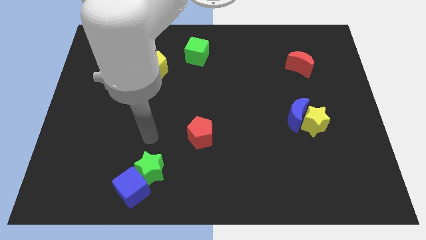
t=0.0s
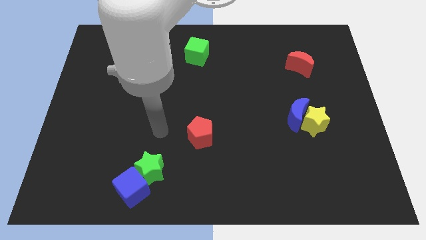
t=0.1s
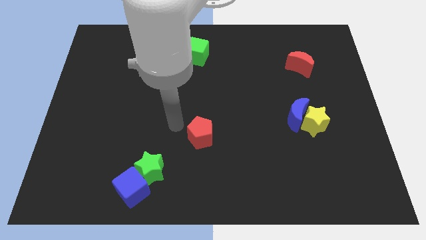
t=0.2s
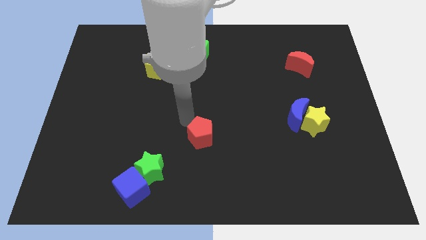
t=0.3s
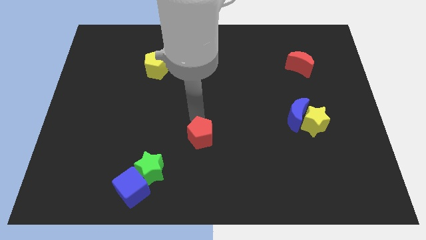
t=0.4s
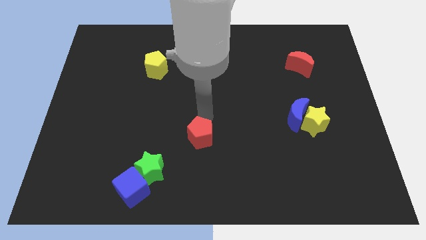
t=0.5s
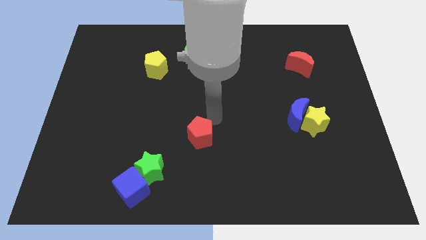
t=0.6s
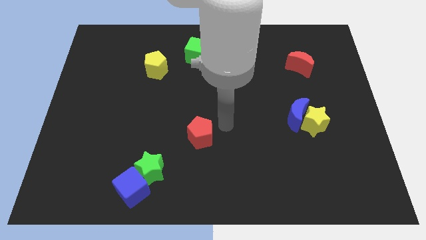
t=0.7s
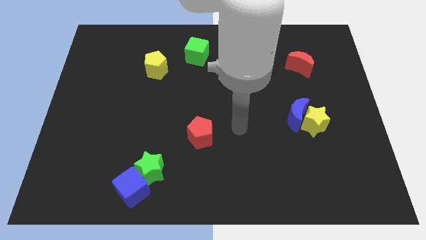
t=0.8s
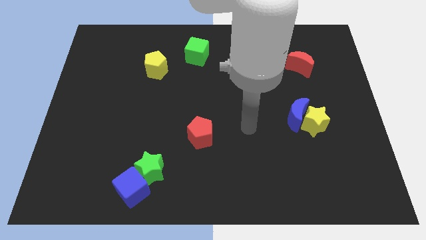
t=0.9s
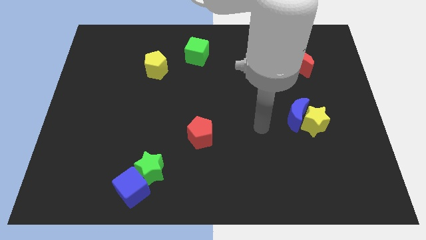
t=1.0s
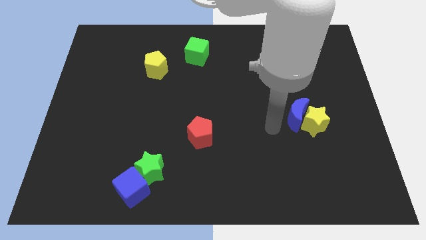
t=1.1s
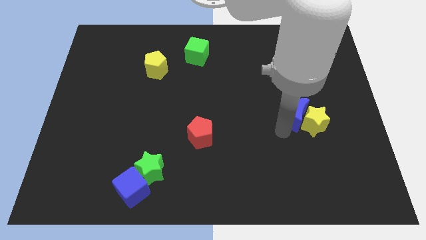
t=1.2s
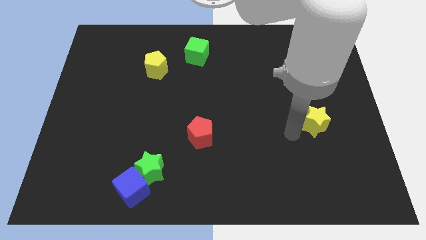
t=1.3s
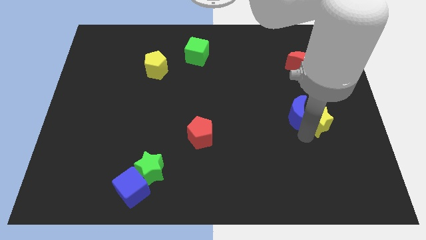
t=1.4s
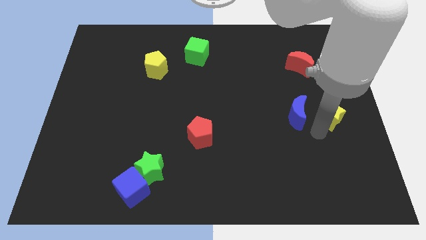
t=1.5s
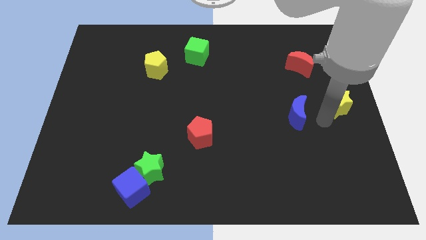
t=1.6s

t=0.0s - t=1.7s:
separate the blue moon from the yellow star

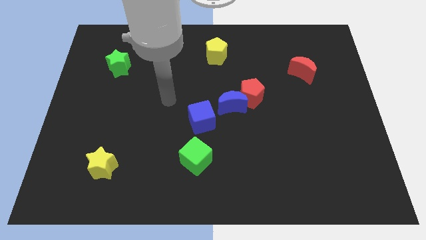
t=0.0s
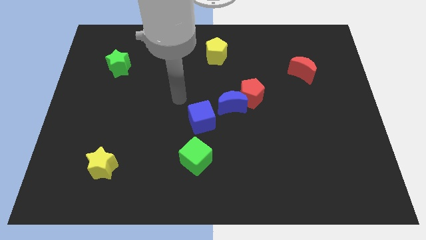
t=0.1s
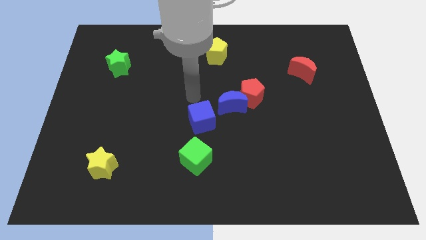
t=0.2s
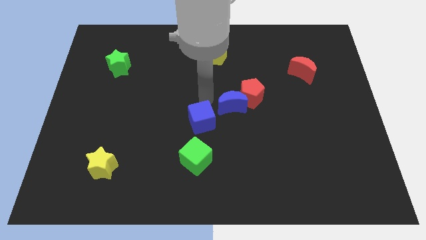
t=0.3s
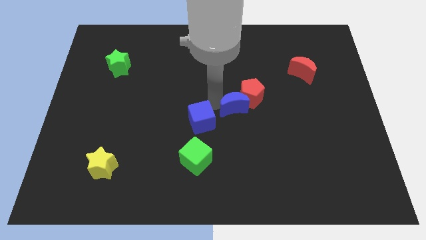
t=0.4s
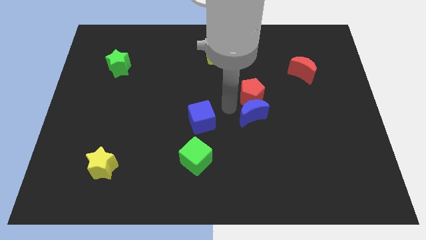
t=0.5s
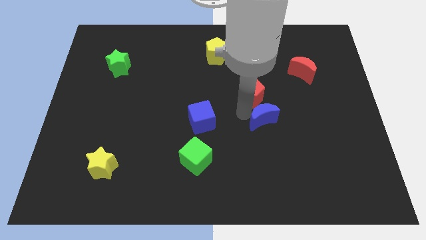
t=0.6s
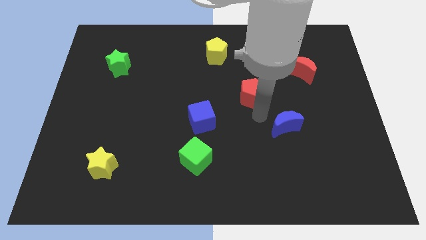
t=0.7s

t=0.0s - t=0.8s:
separate the red pentagon from the blue moon

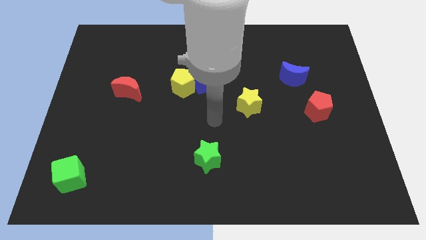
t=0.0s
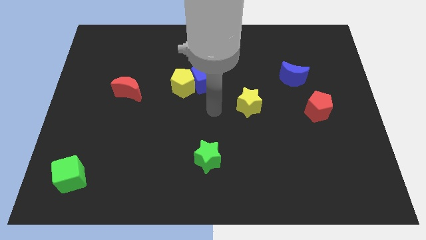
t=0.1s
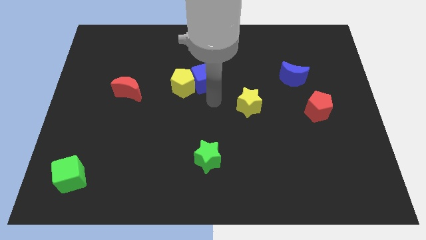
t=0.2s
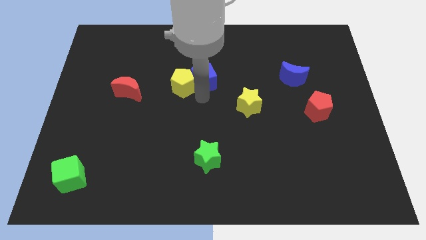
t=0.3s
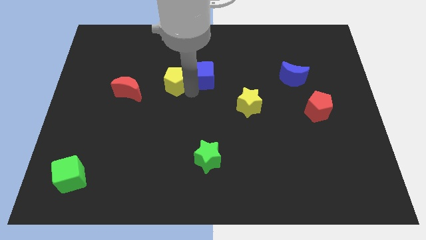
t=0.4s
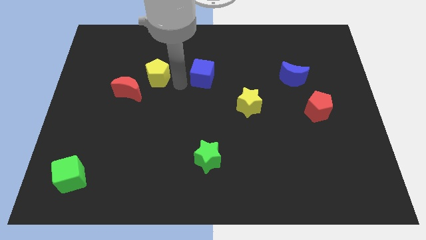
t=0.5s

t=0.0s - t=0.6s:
pull the blue cube apart from the yellow pentagon

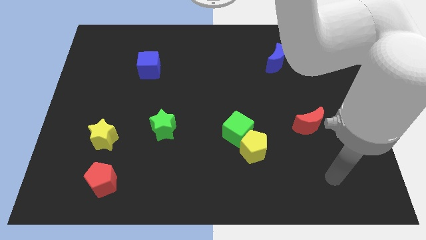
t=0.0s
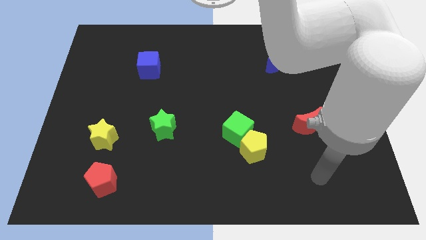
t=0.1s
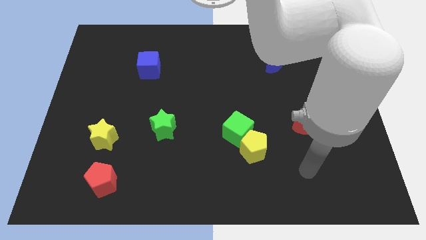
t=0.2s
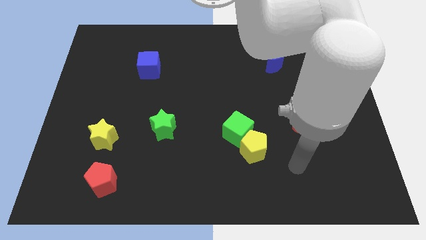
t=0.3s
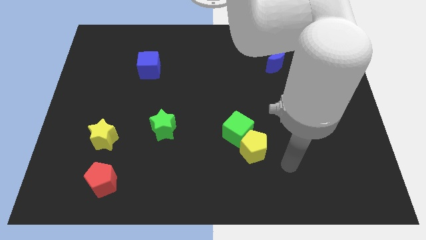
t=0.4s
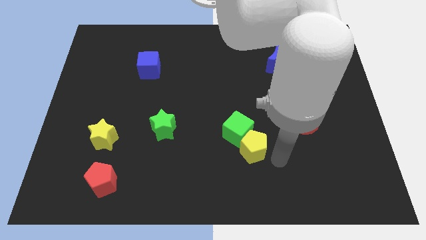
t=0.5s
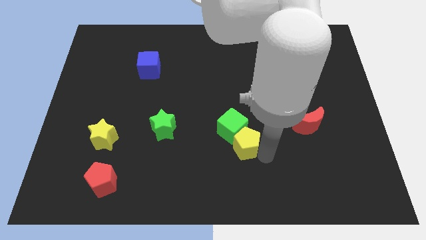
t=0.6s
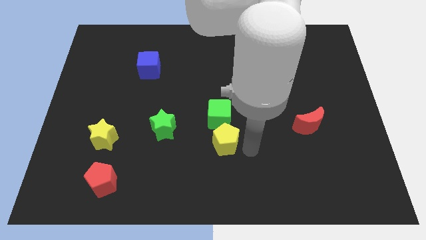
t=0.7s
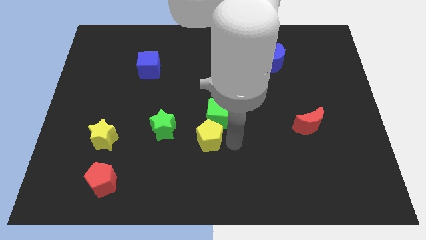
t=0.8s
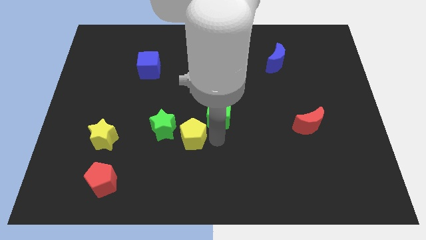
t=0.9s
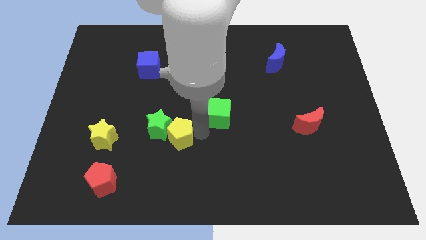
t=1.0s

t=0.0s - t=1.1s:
pull the green cube apart from the yellow pentagon

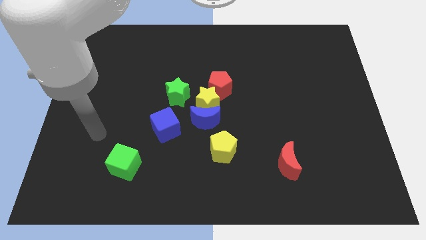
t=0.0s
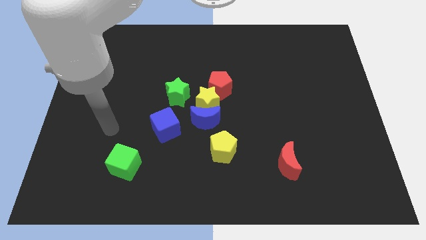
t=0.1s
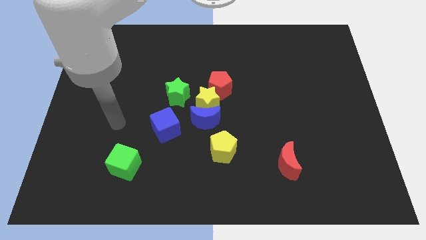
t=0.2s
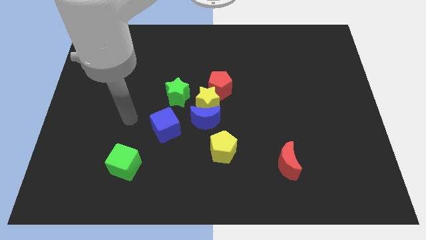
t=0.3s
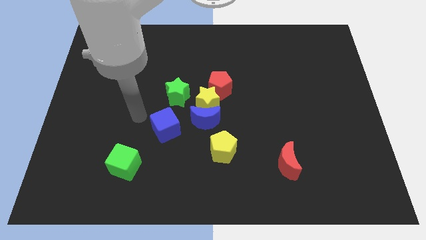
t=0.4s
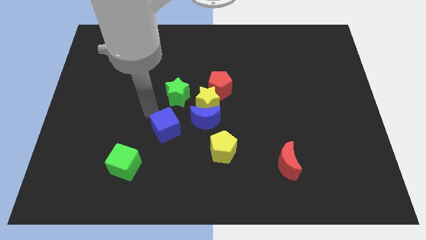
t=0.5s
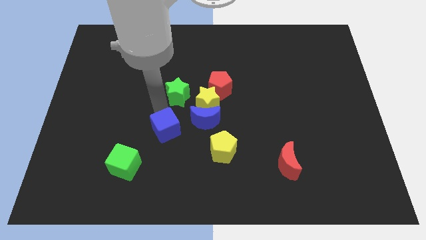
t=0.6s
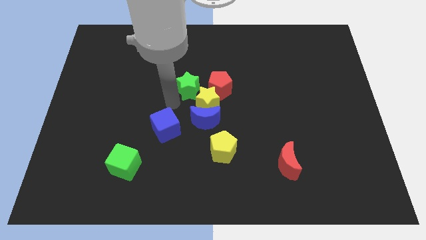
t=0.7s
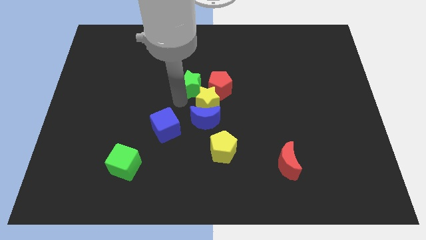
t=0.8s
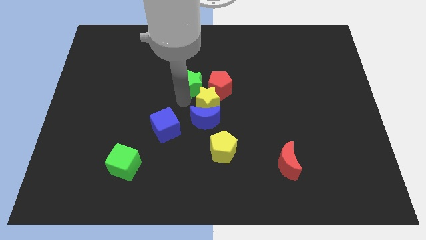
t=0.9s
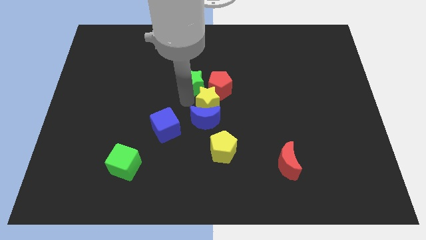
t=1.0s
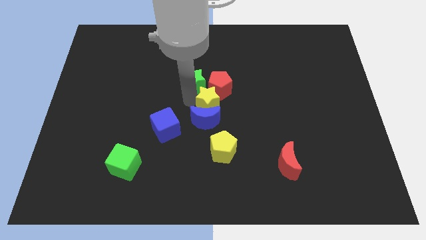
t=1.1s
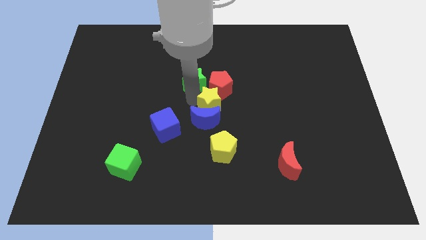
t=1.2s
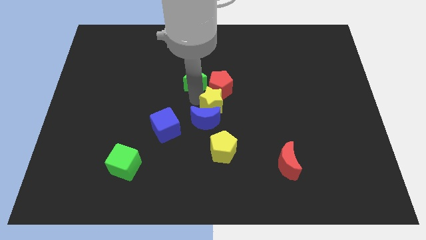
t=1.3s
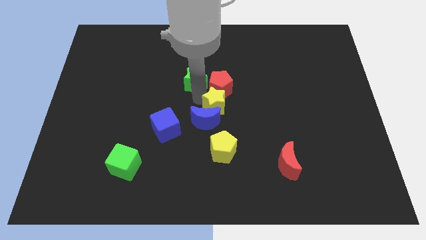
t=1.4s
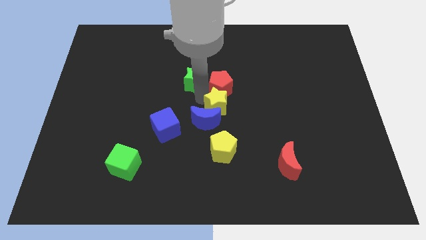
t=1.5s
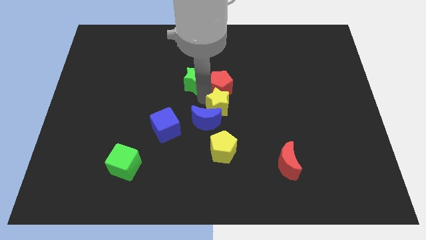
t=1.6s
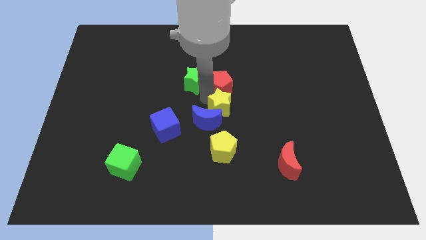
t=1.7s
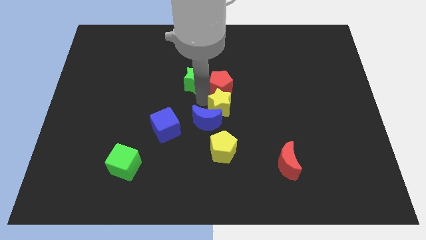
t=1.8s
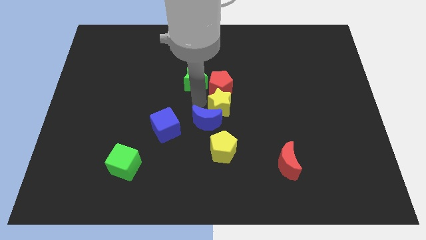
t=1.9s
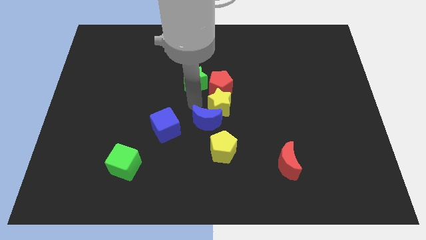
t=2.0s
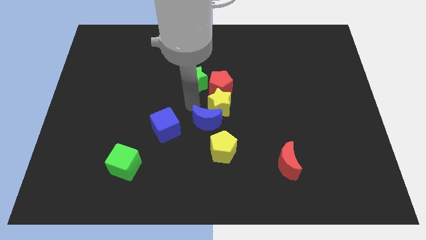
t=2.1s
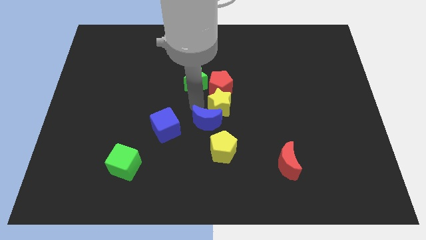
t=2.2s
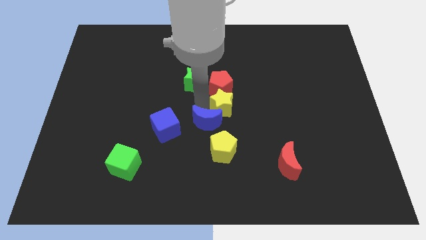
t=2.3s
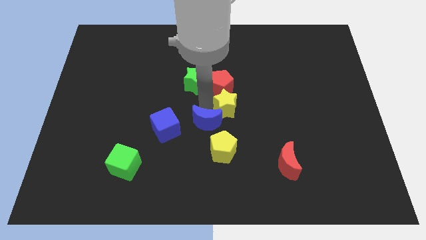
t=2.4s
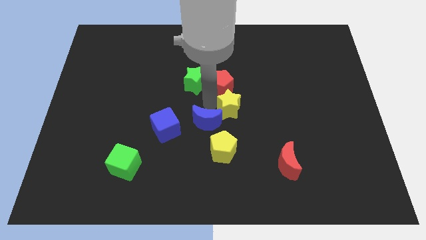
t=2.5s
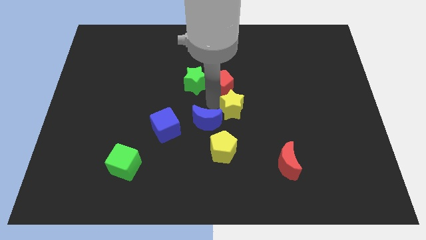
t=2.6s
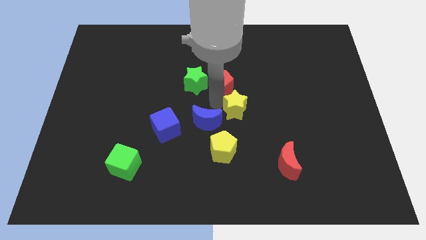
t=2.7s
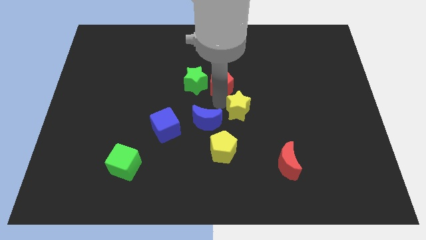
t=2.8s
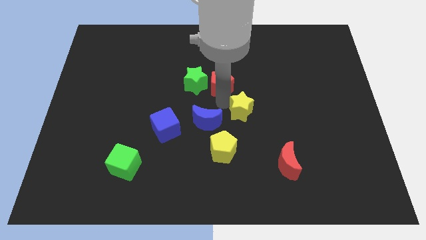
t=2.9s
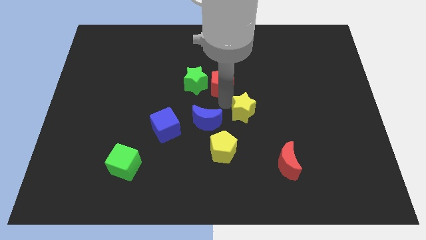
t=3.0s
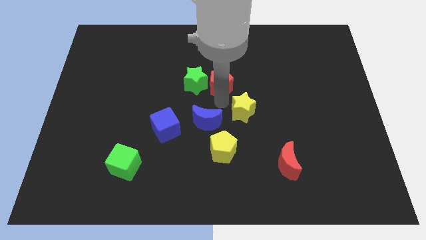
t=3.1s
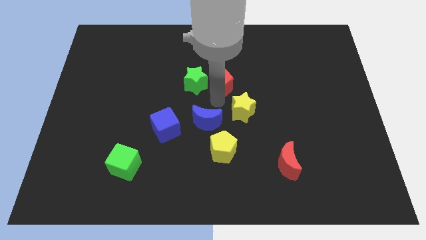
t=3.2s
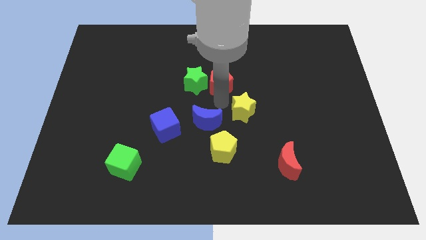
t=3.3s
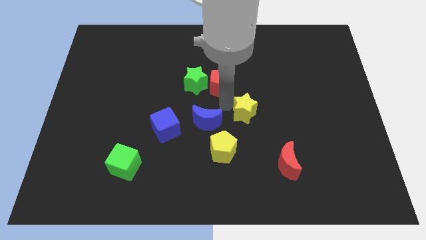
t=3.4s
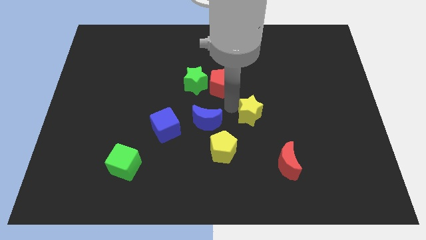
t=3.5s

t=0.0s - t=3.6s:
pull the yellow star apart from the group of blocks

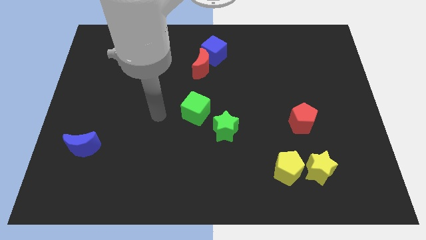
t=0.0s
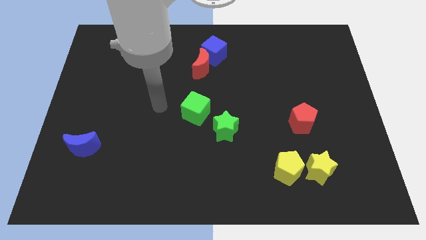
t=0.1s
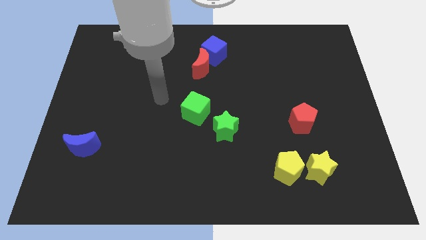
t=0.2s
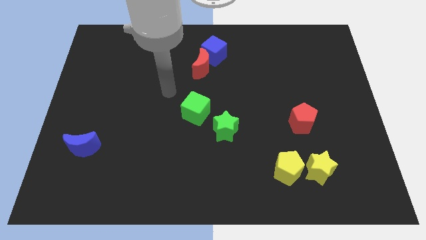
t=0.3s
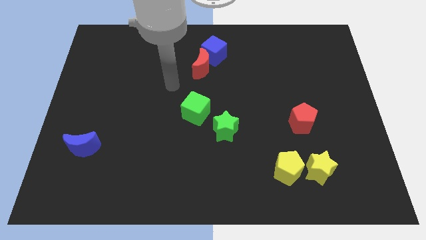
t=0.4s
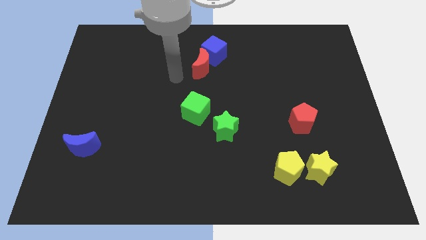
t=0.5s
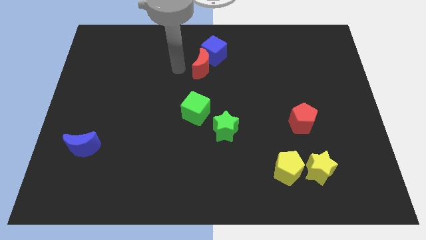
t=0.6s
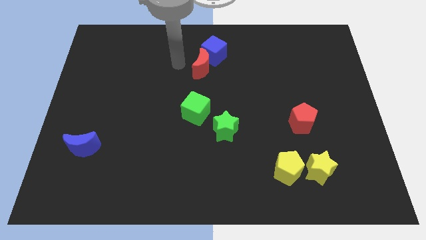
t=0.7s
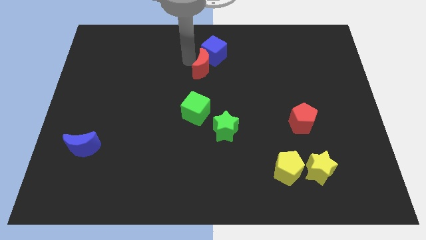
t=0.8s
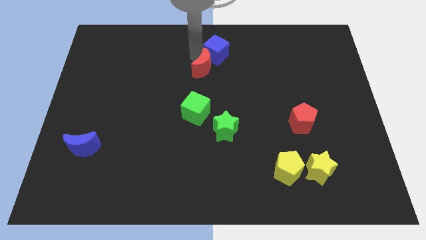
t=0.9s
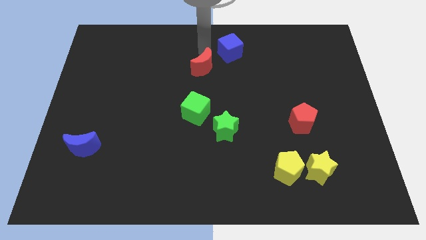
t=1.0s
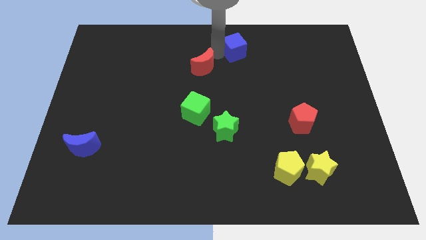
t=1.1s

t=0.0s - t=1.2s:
pull the red moon apart from the blue cube

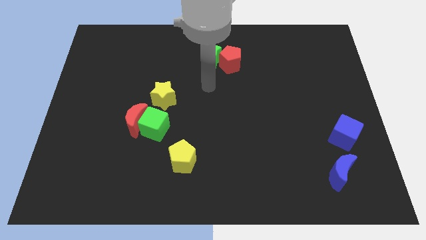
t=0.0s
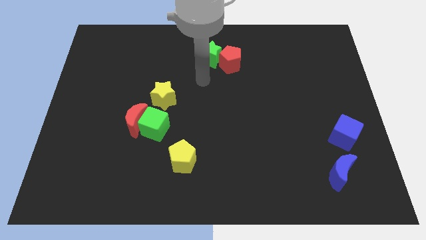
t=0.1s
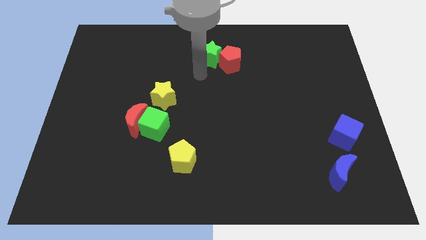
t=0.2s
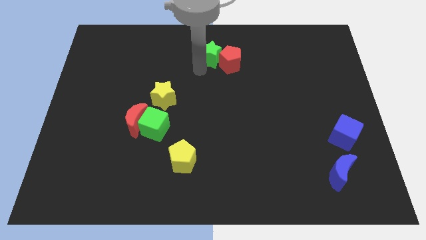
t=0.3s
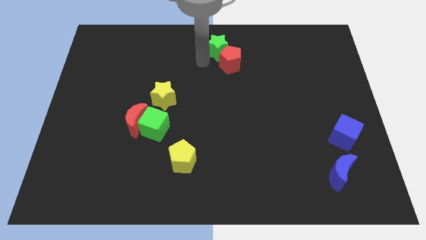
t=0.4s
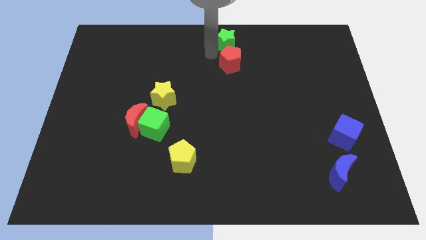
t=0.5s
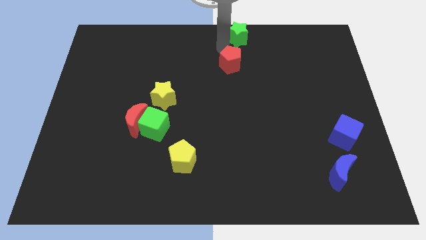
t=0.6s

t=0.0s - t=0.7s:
pull the red pentagon apart from the green star
